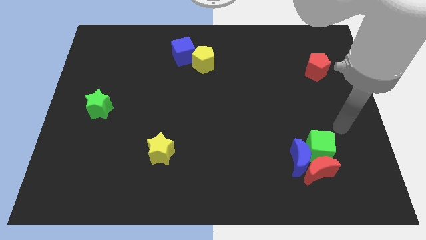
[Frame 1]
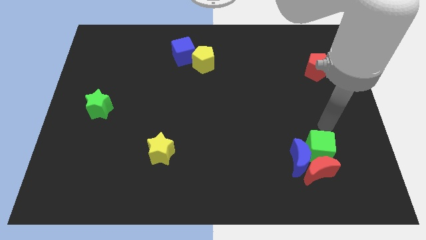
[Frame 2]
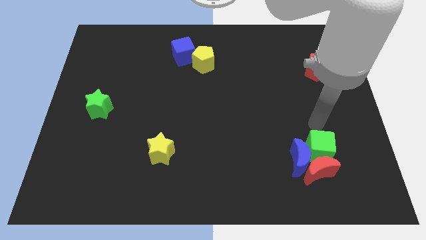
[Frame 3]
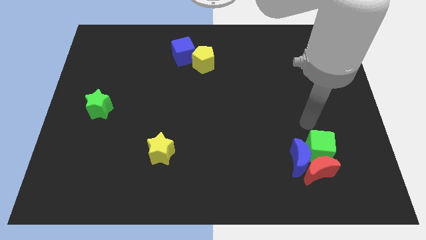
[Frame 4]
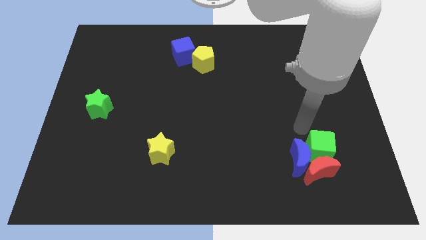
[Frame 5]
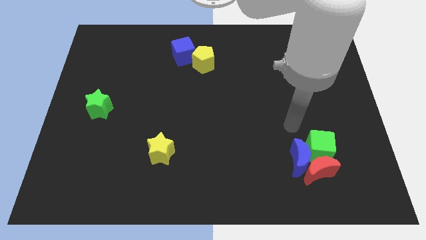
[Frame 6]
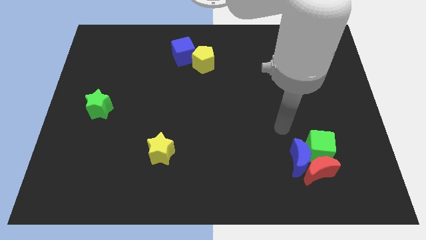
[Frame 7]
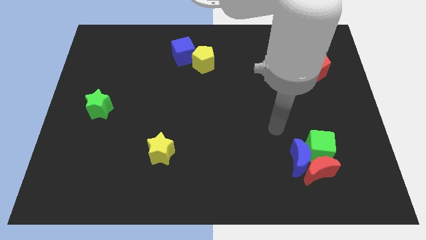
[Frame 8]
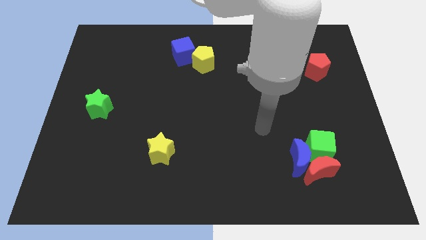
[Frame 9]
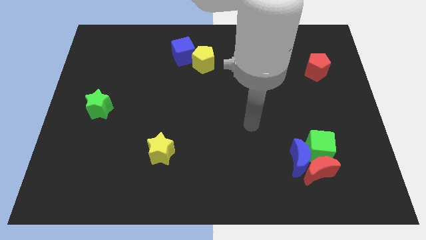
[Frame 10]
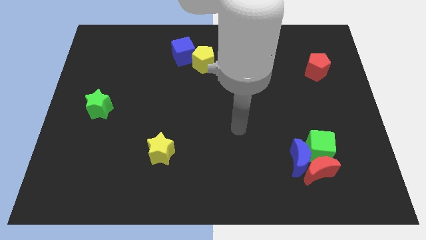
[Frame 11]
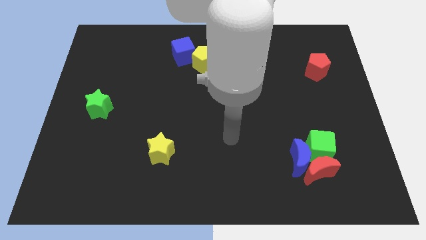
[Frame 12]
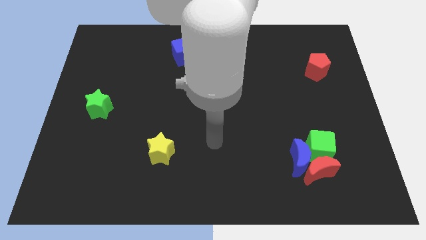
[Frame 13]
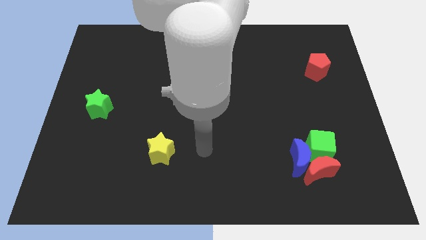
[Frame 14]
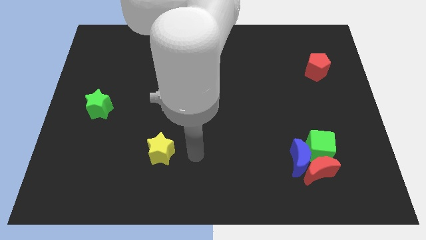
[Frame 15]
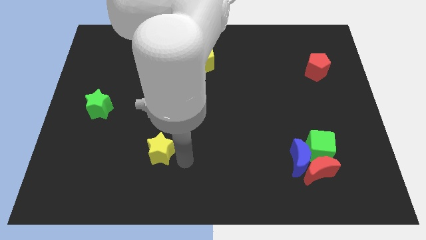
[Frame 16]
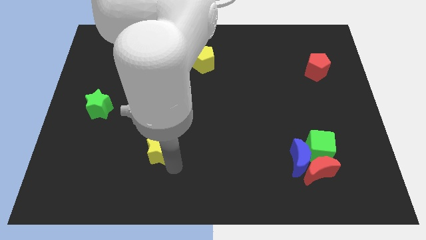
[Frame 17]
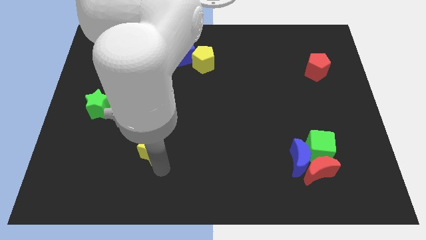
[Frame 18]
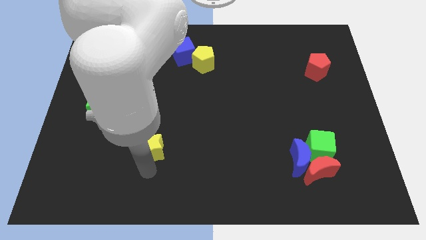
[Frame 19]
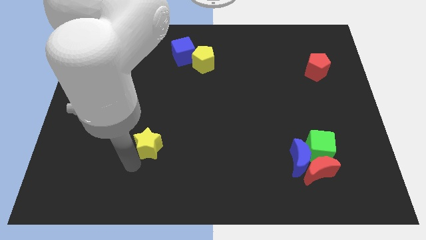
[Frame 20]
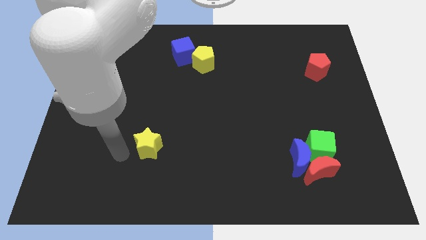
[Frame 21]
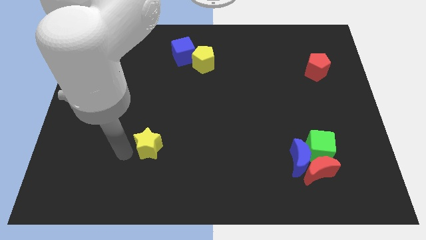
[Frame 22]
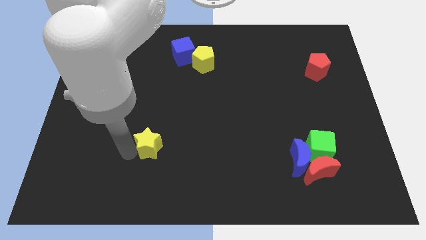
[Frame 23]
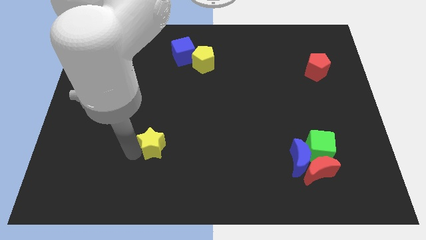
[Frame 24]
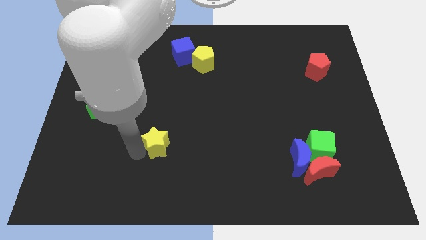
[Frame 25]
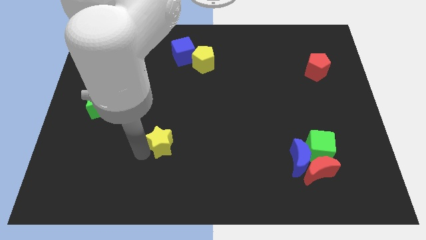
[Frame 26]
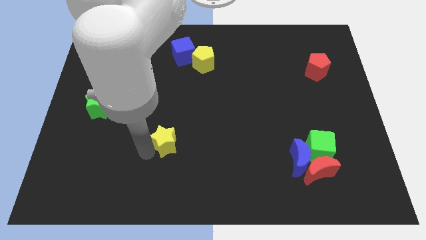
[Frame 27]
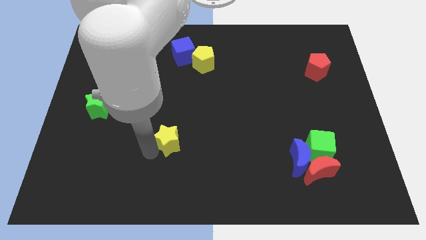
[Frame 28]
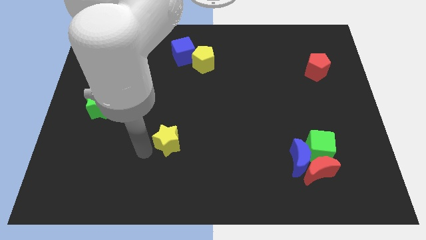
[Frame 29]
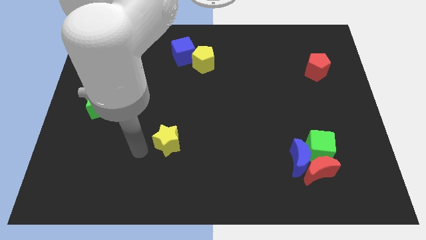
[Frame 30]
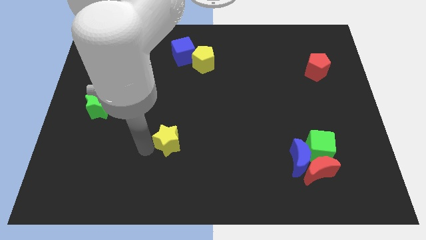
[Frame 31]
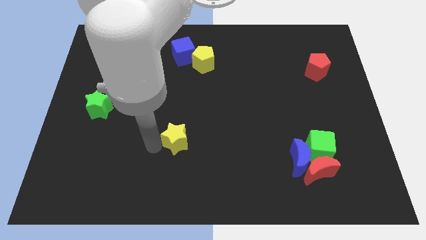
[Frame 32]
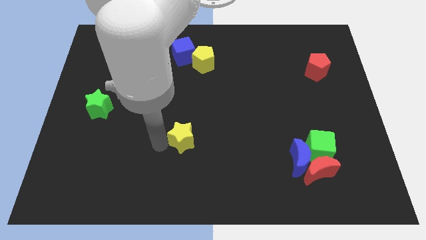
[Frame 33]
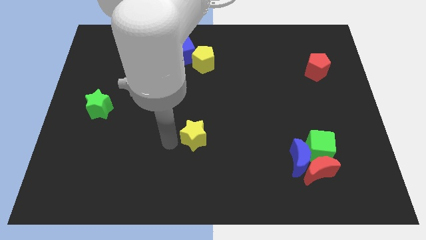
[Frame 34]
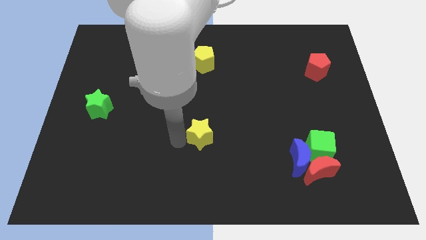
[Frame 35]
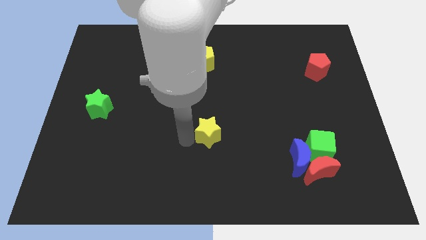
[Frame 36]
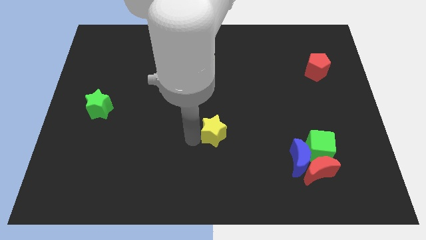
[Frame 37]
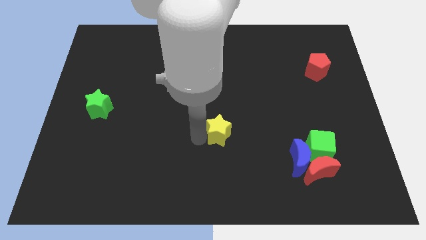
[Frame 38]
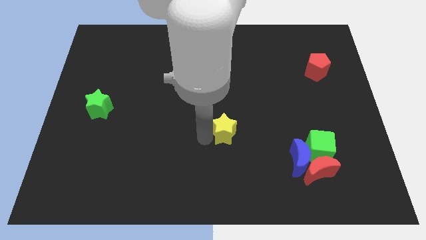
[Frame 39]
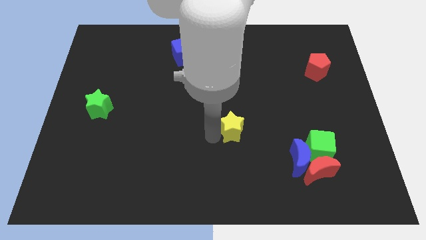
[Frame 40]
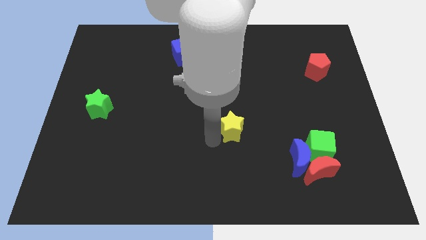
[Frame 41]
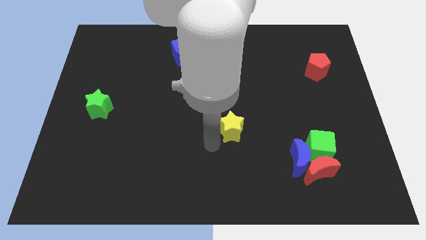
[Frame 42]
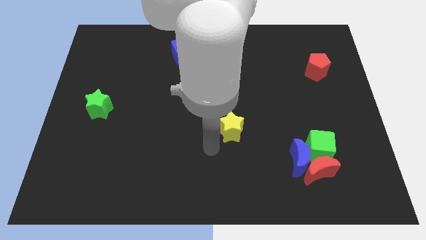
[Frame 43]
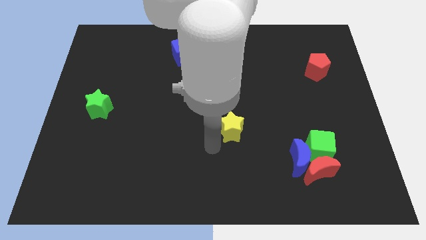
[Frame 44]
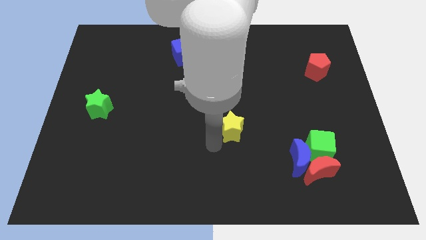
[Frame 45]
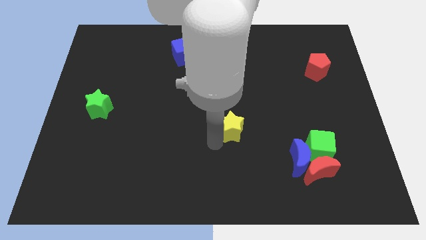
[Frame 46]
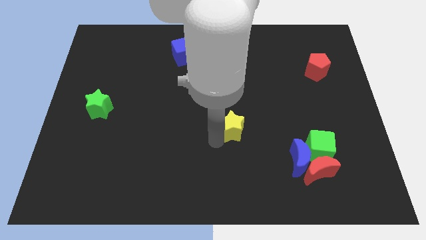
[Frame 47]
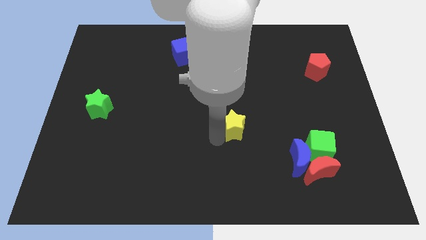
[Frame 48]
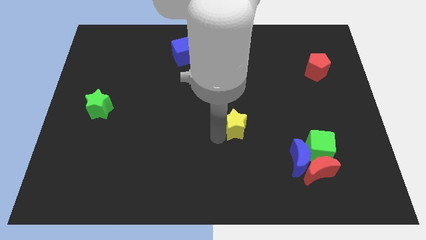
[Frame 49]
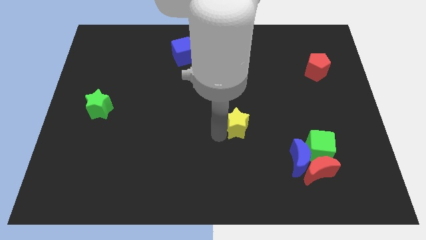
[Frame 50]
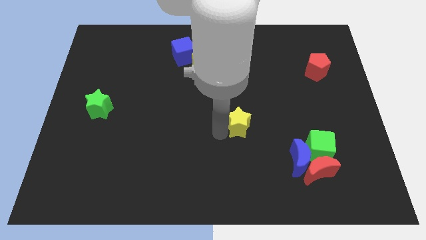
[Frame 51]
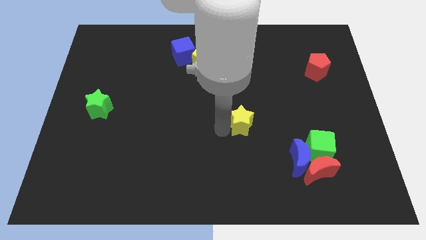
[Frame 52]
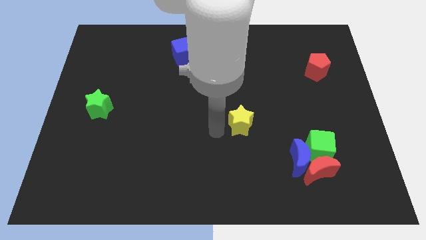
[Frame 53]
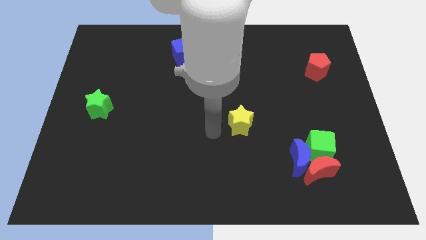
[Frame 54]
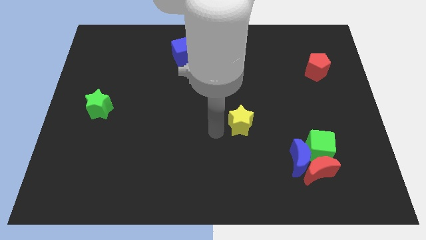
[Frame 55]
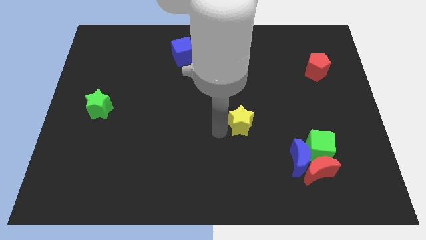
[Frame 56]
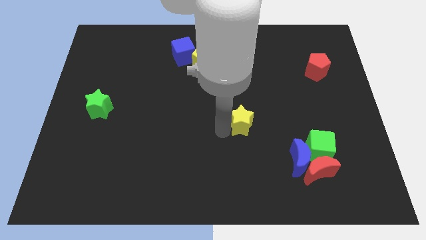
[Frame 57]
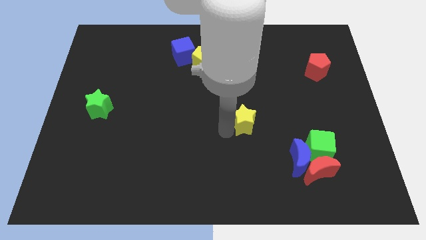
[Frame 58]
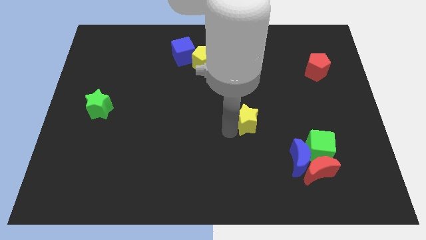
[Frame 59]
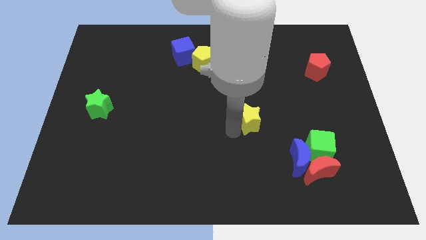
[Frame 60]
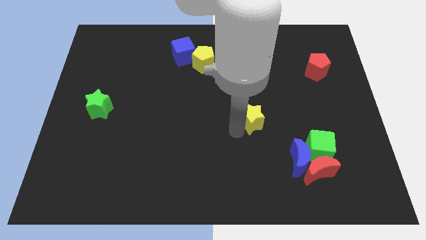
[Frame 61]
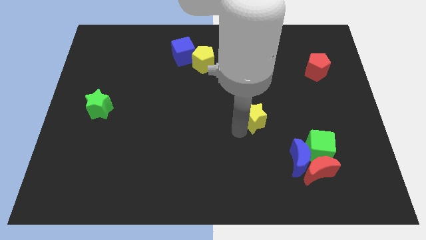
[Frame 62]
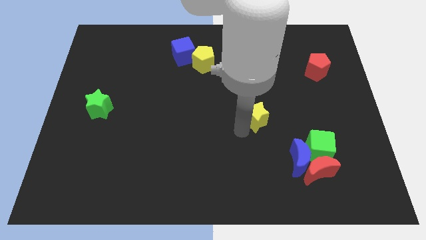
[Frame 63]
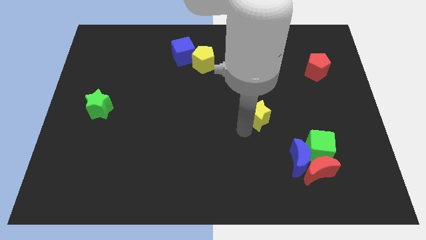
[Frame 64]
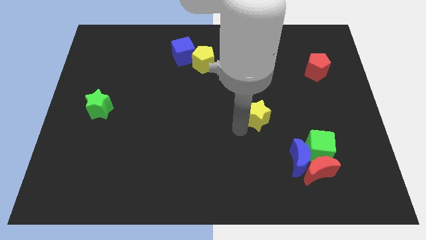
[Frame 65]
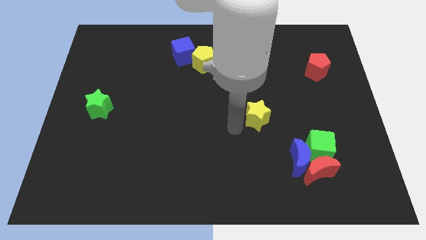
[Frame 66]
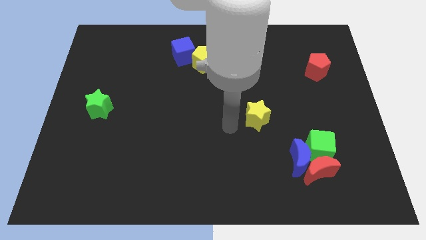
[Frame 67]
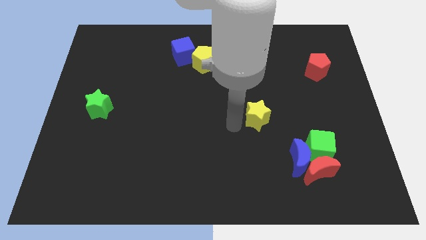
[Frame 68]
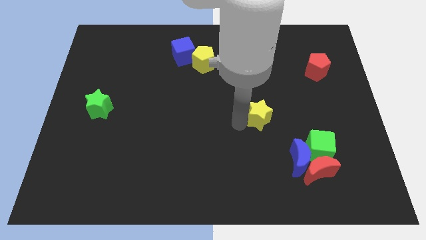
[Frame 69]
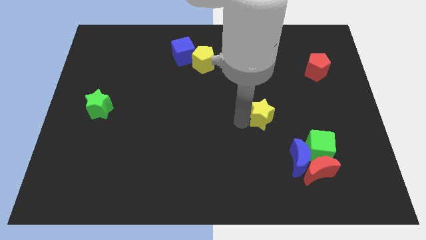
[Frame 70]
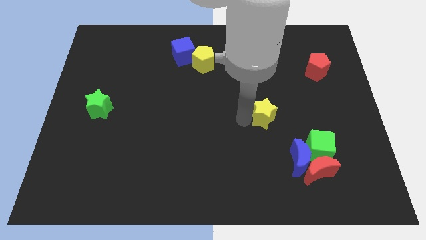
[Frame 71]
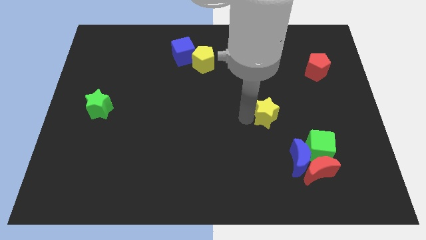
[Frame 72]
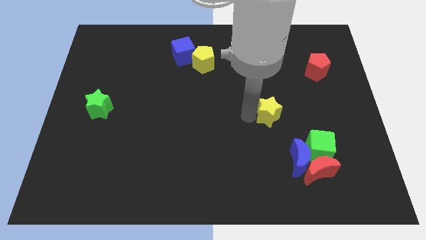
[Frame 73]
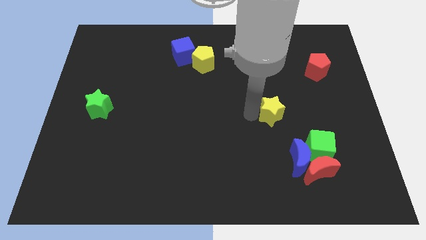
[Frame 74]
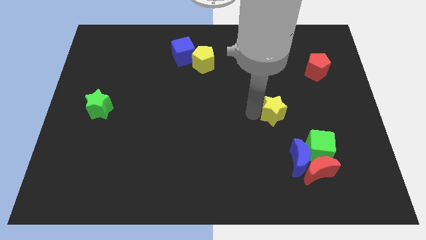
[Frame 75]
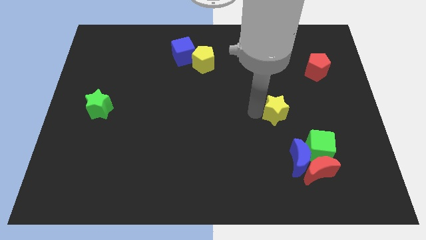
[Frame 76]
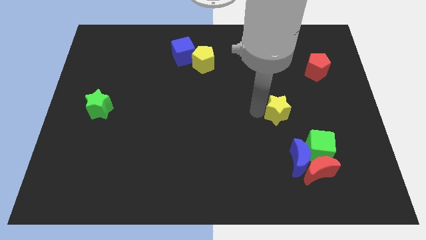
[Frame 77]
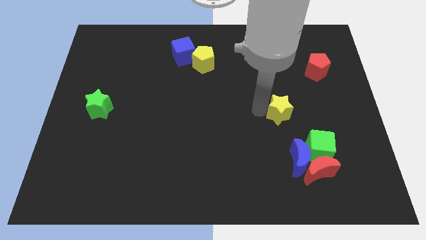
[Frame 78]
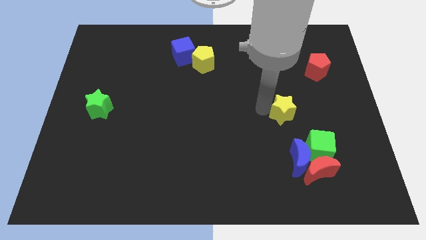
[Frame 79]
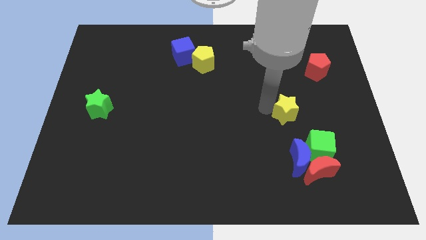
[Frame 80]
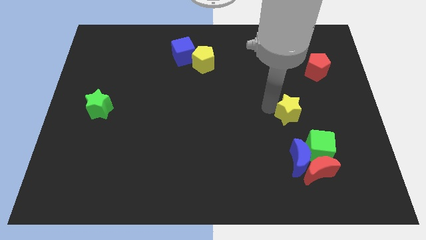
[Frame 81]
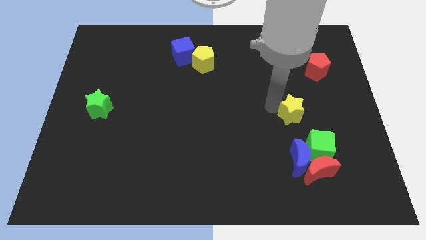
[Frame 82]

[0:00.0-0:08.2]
push the yellow star above the green cube
